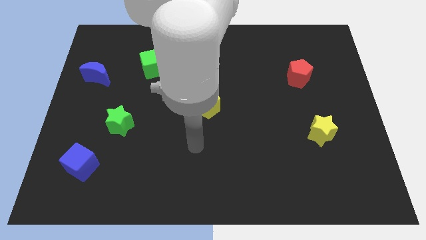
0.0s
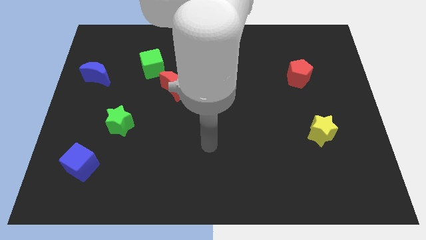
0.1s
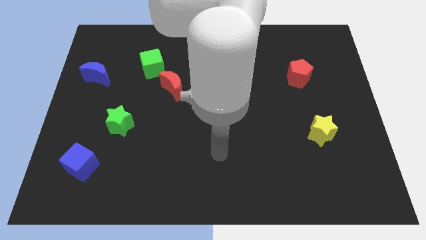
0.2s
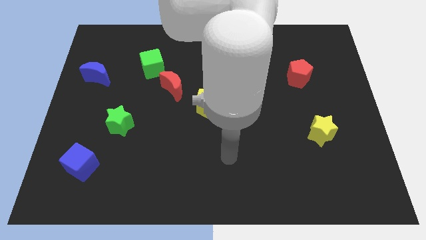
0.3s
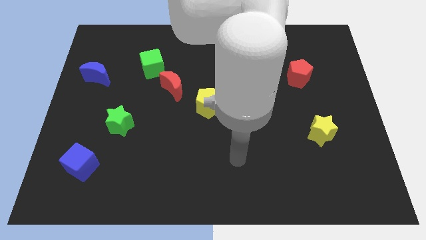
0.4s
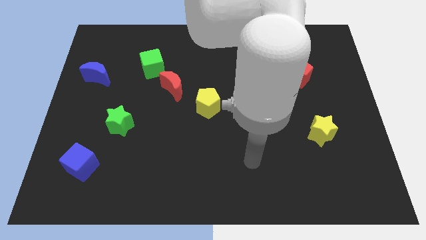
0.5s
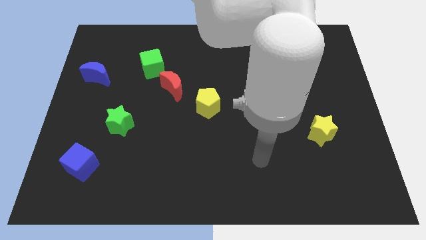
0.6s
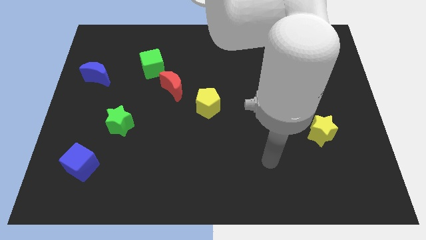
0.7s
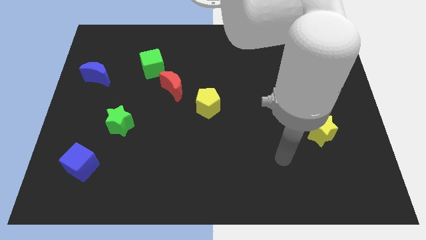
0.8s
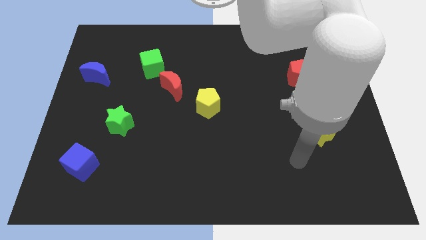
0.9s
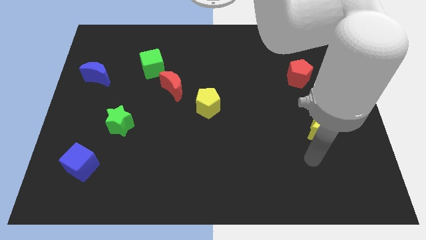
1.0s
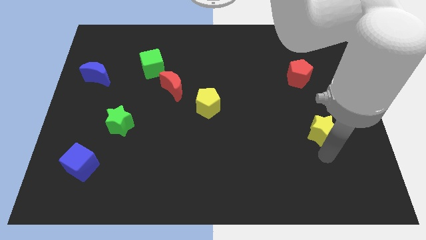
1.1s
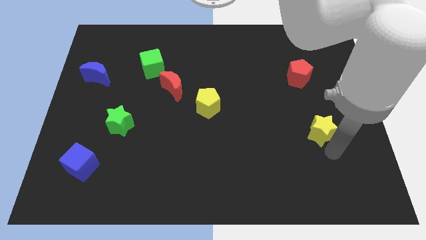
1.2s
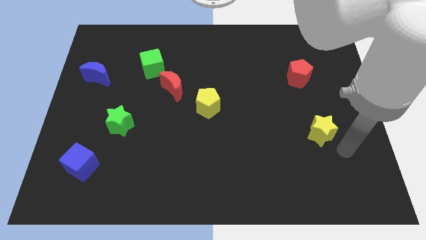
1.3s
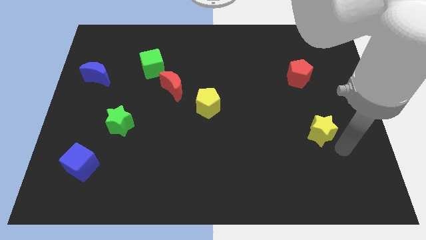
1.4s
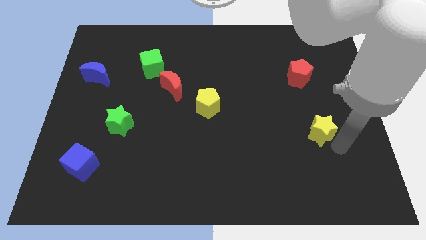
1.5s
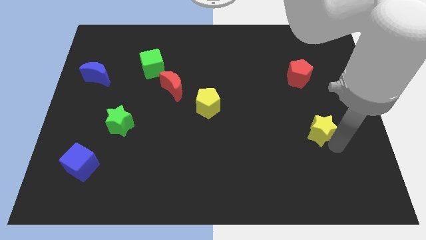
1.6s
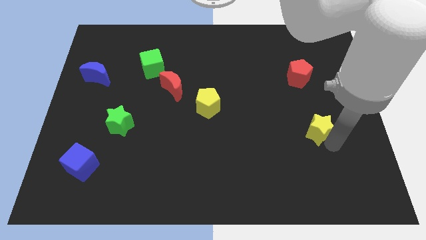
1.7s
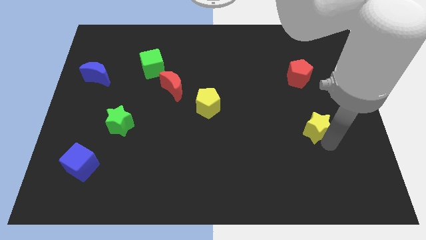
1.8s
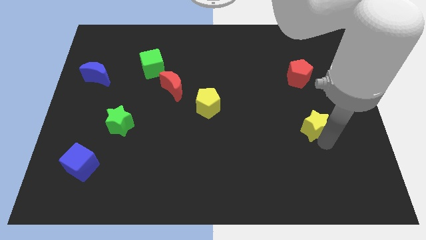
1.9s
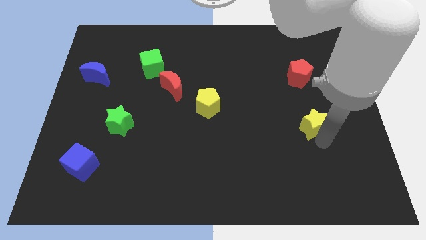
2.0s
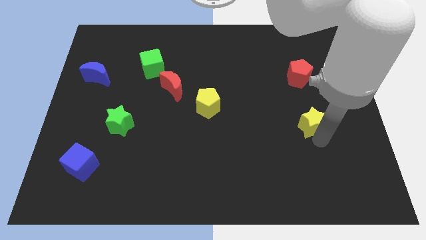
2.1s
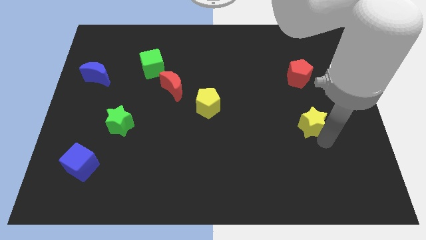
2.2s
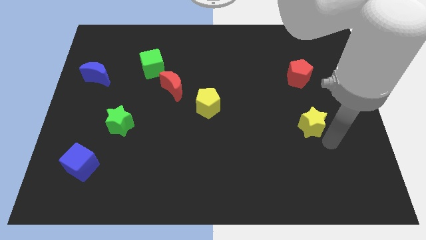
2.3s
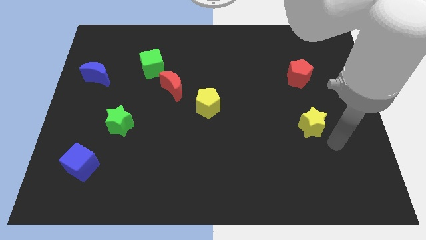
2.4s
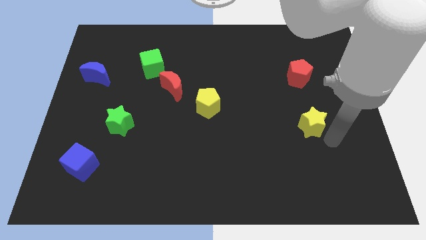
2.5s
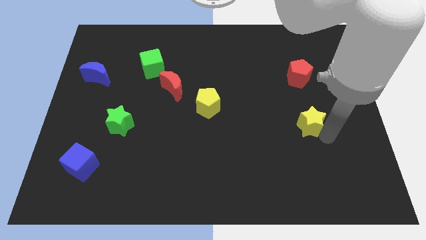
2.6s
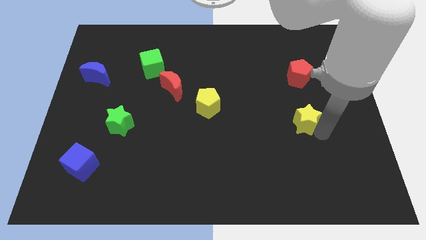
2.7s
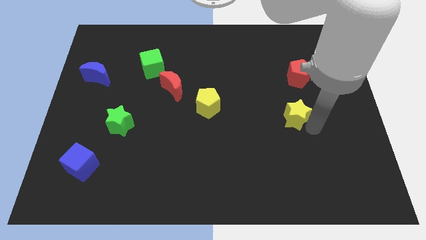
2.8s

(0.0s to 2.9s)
slightly move the yellow star upwards and left

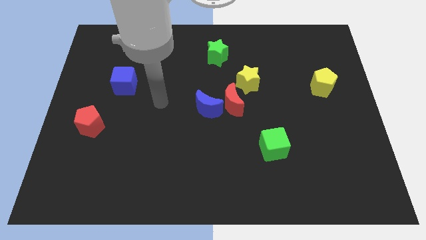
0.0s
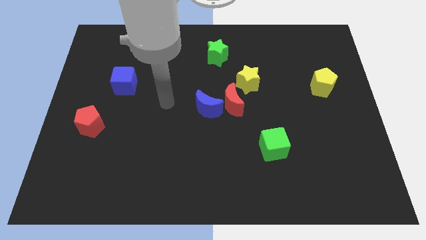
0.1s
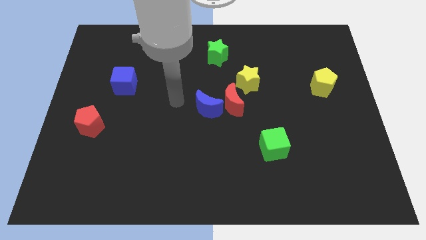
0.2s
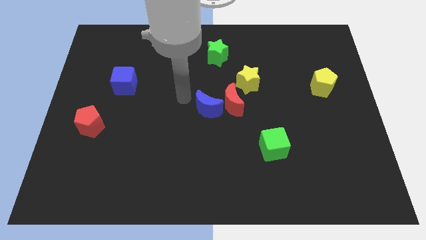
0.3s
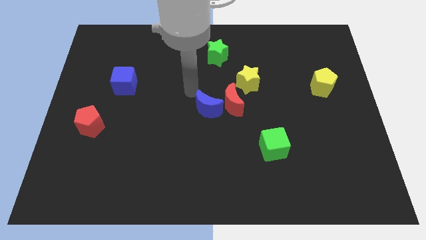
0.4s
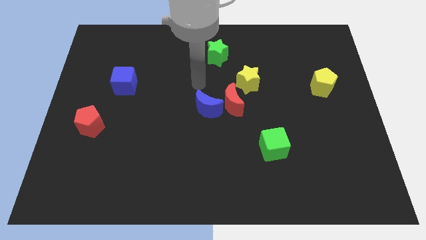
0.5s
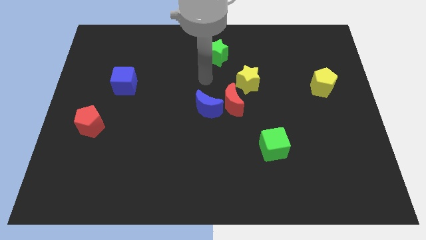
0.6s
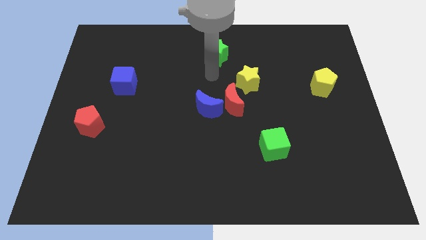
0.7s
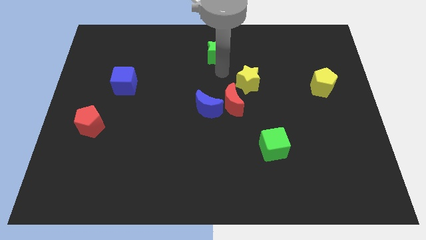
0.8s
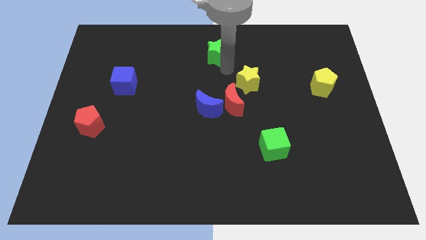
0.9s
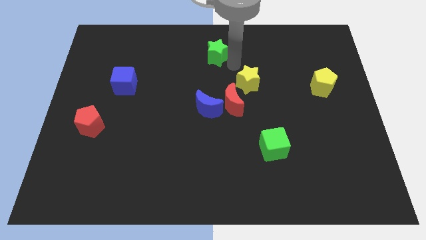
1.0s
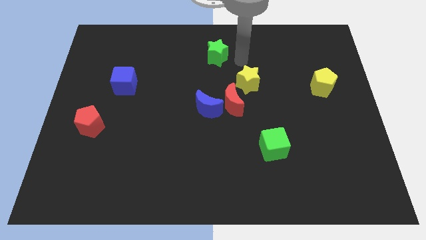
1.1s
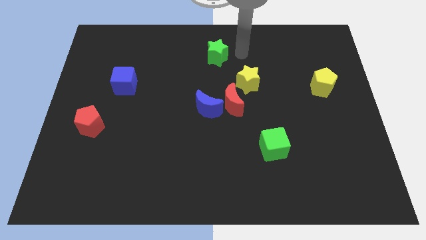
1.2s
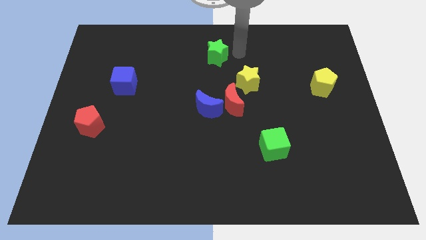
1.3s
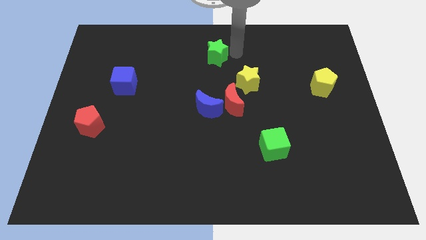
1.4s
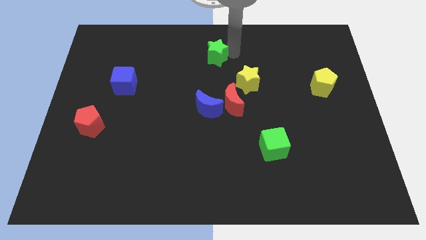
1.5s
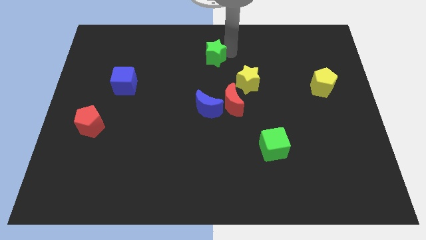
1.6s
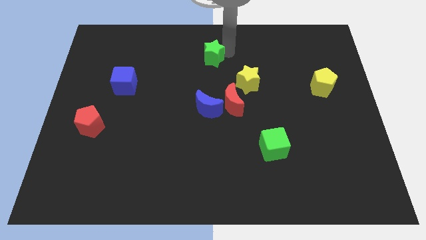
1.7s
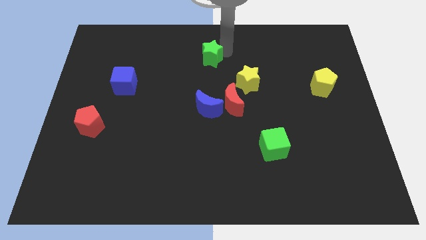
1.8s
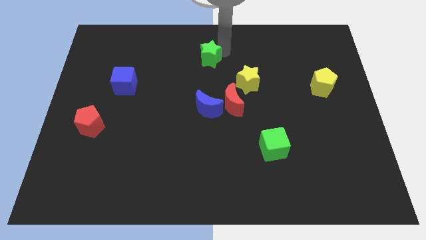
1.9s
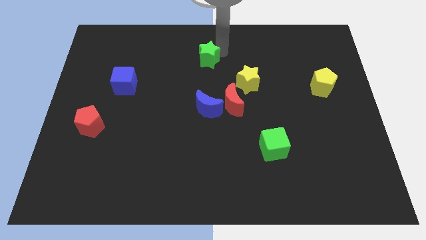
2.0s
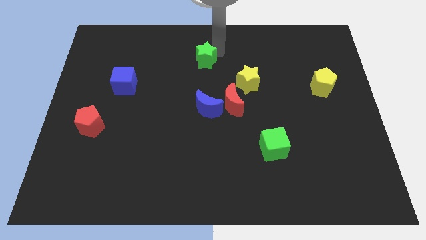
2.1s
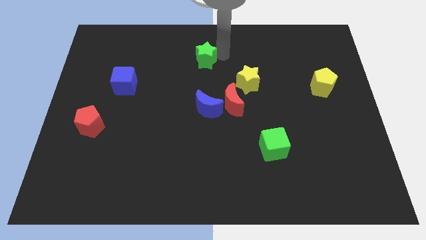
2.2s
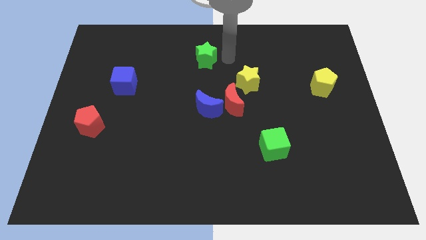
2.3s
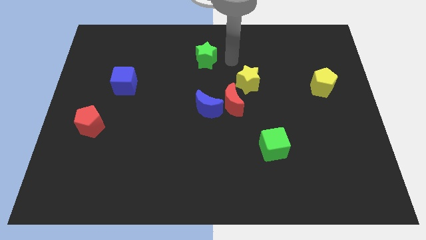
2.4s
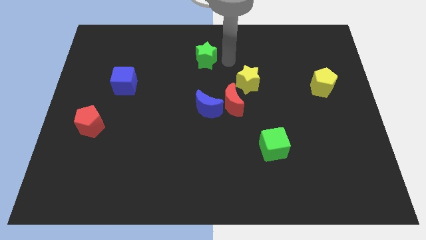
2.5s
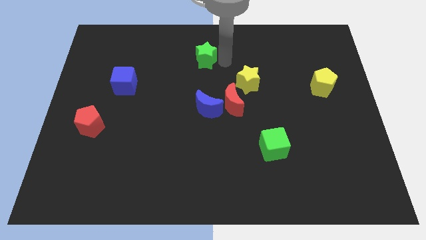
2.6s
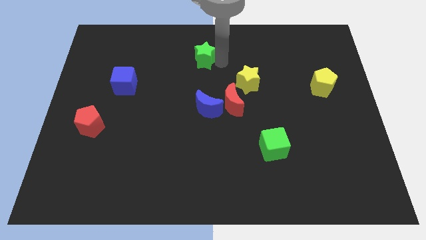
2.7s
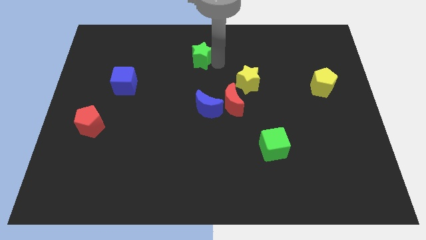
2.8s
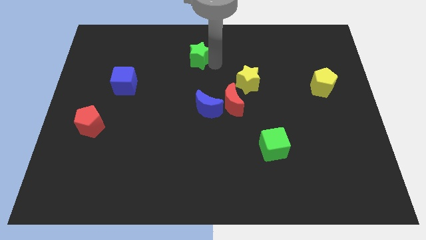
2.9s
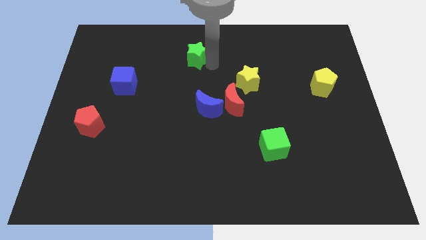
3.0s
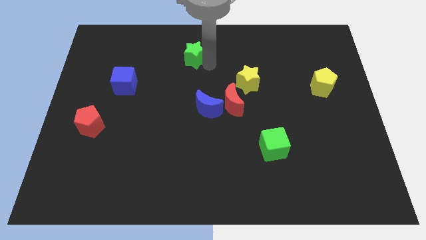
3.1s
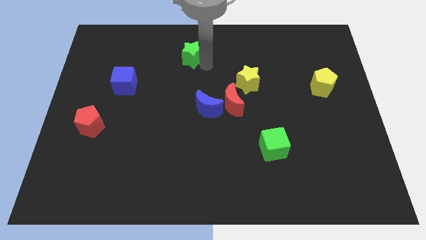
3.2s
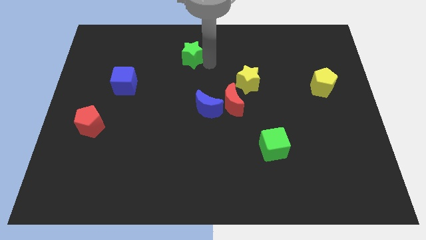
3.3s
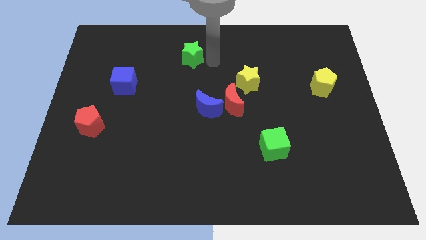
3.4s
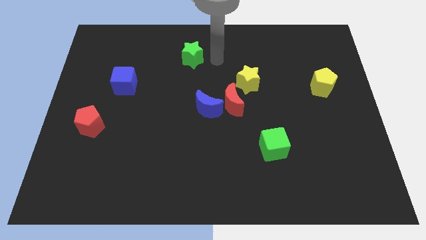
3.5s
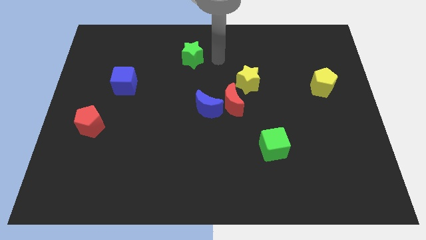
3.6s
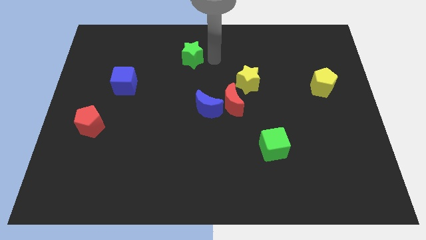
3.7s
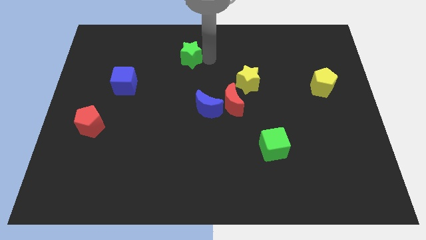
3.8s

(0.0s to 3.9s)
slide the green star a bit to the left

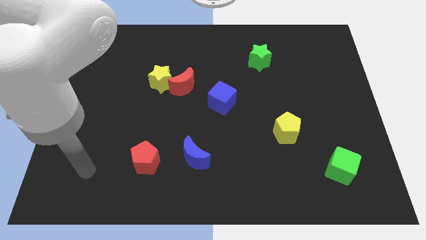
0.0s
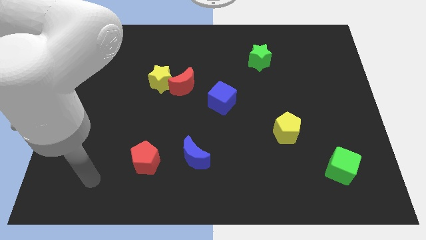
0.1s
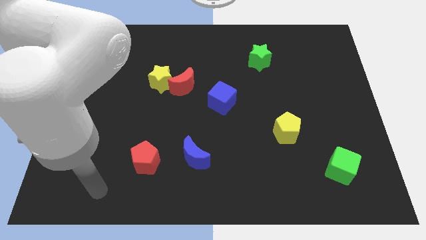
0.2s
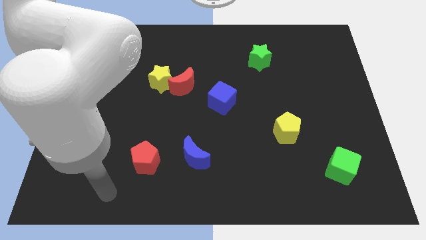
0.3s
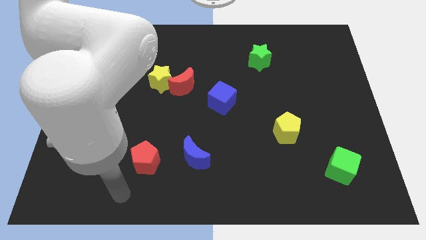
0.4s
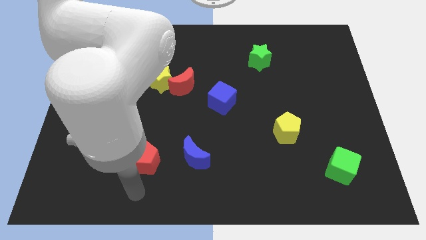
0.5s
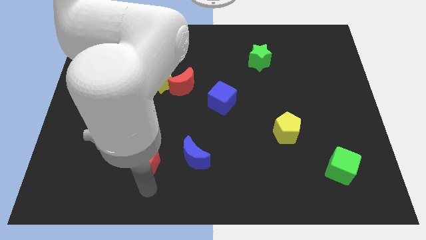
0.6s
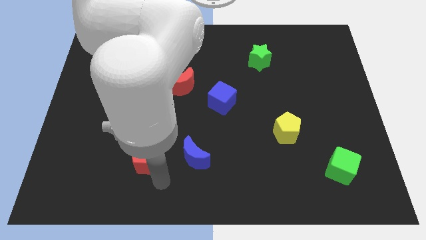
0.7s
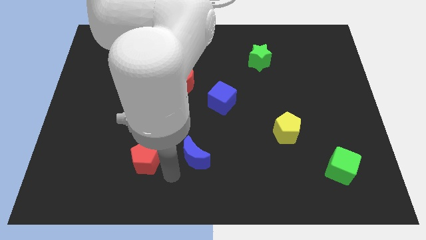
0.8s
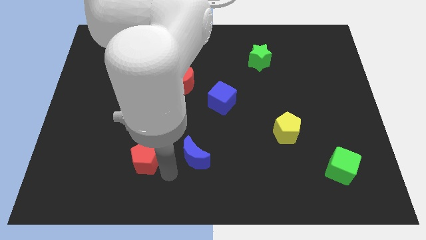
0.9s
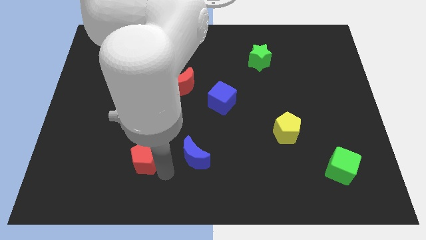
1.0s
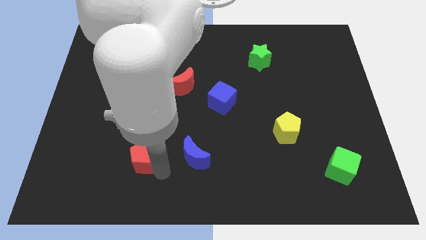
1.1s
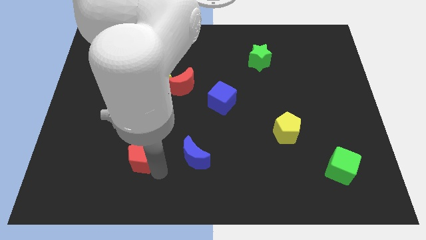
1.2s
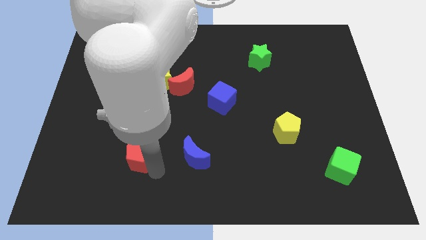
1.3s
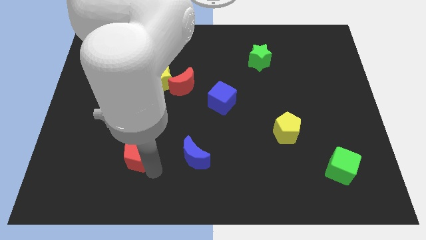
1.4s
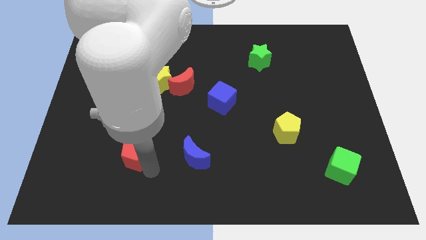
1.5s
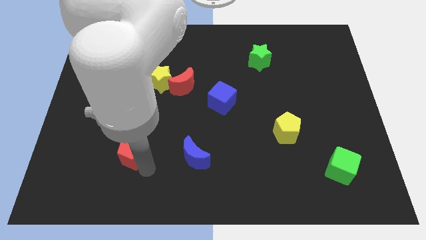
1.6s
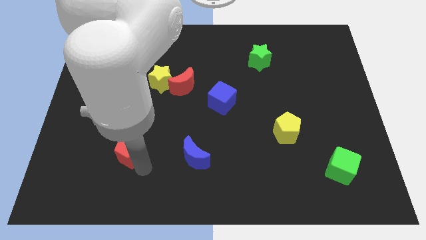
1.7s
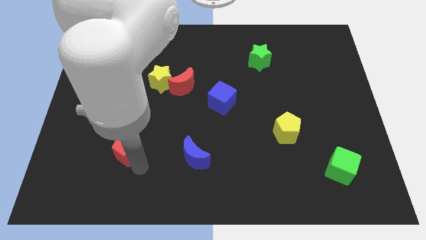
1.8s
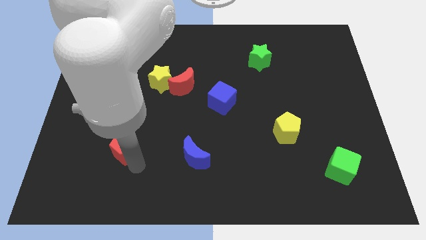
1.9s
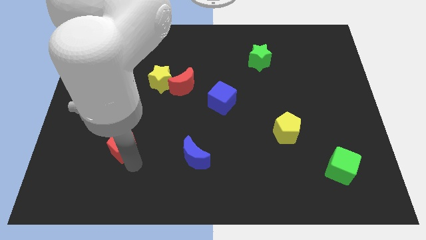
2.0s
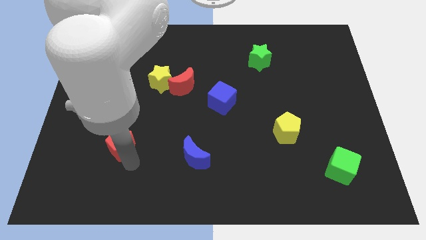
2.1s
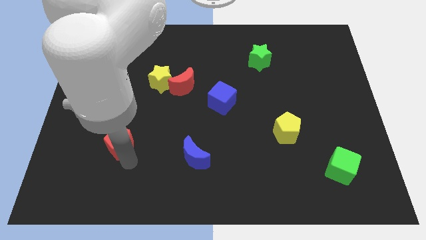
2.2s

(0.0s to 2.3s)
slightly slide the red pentagon up and then to the left
